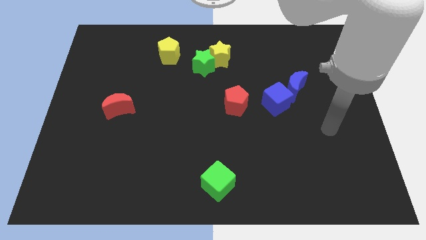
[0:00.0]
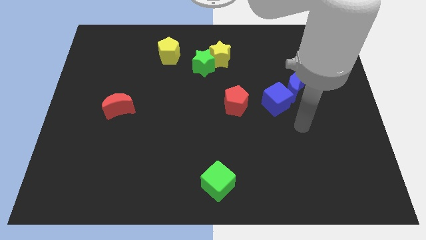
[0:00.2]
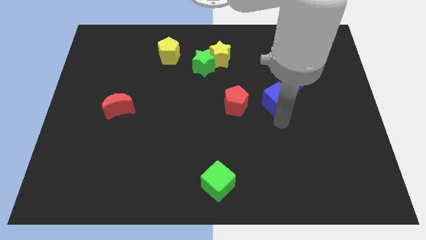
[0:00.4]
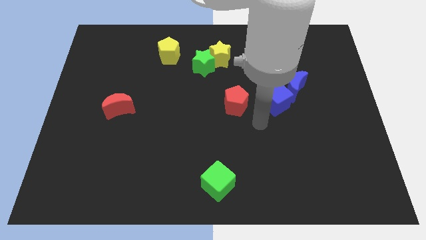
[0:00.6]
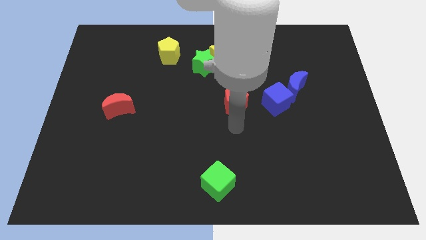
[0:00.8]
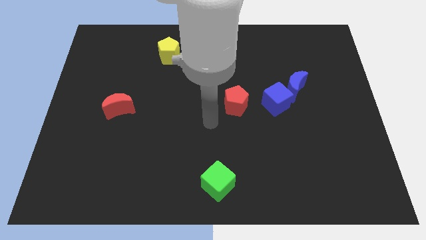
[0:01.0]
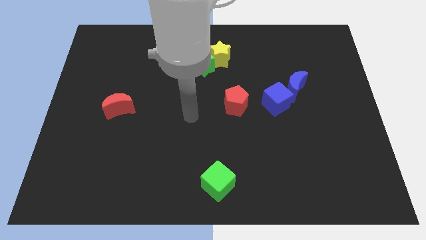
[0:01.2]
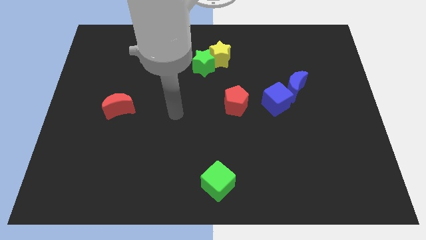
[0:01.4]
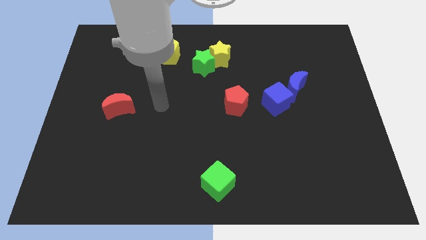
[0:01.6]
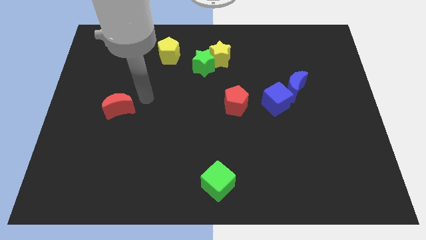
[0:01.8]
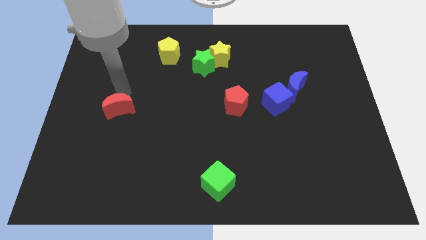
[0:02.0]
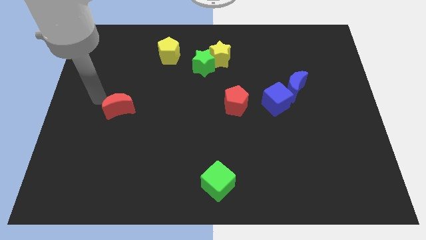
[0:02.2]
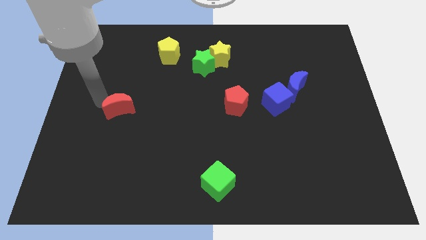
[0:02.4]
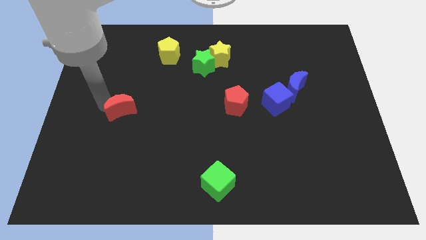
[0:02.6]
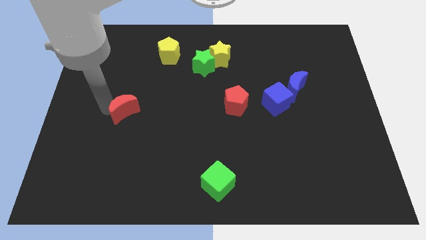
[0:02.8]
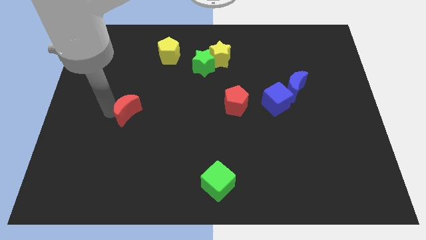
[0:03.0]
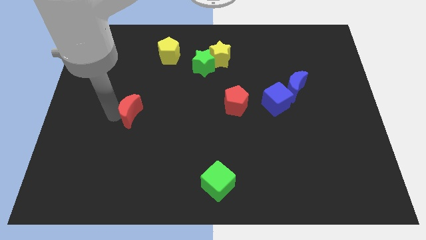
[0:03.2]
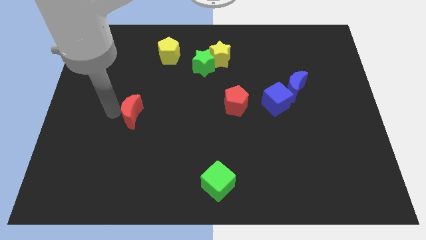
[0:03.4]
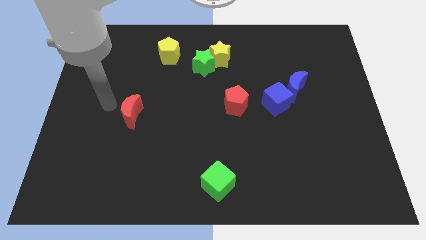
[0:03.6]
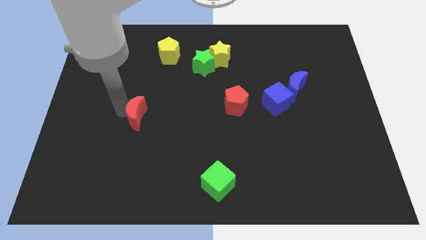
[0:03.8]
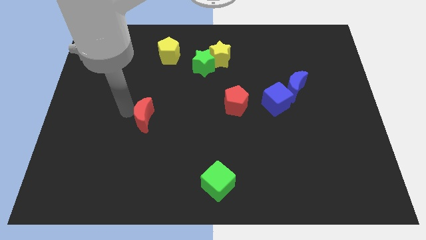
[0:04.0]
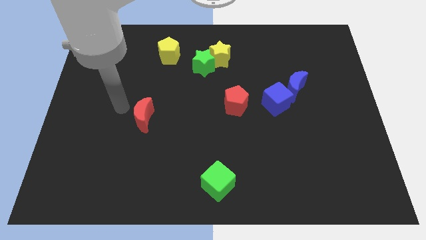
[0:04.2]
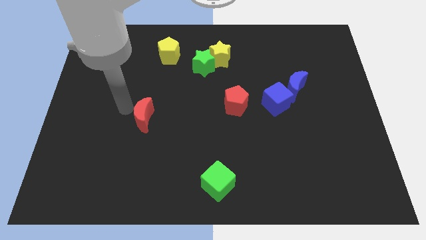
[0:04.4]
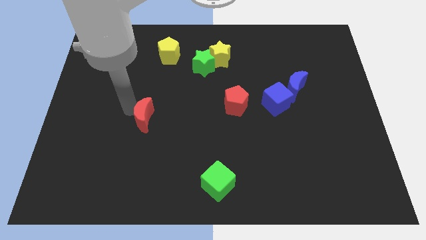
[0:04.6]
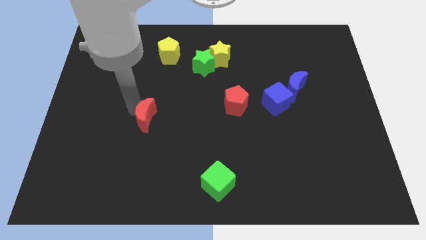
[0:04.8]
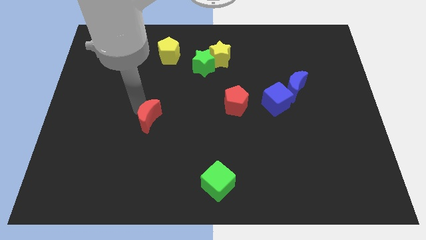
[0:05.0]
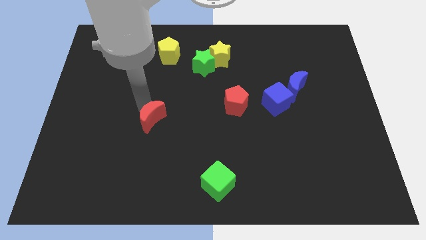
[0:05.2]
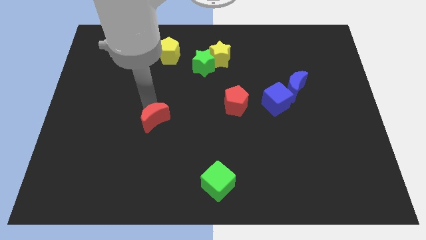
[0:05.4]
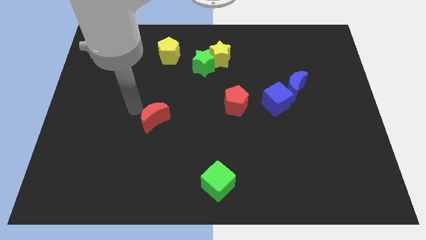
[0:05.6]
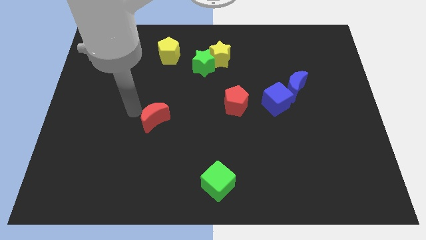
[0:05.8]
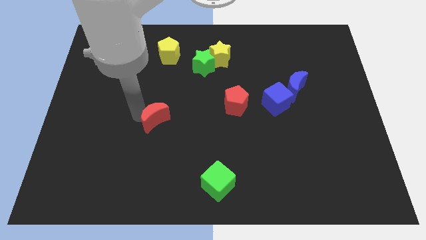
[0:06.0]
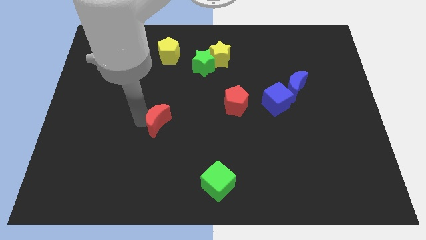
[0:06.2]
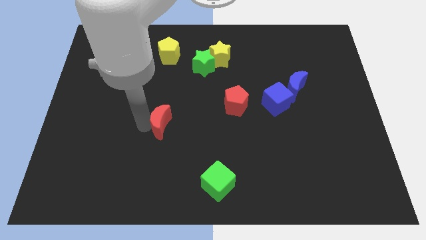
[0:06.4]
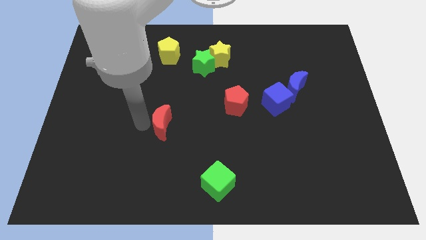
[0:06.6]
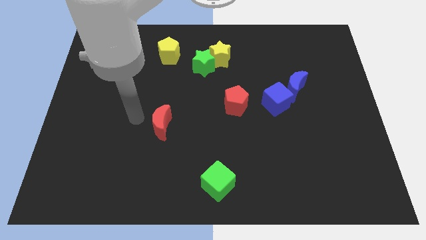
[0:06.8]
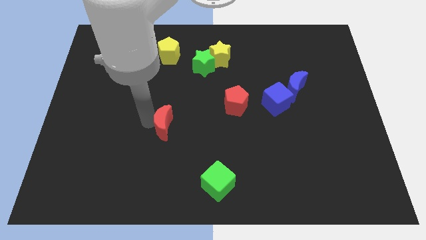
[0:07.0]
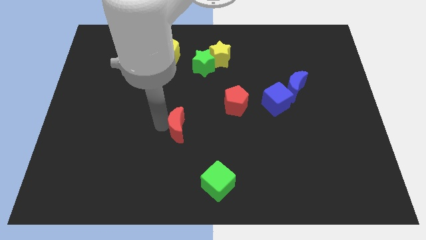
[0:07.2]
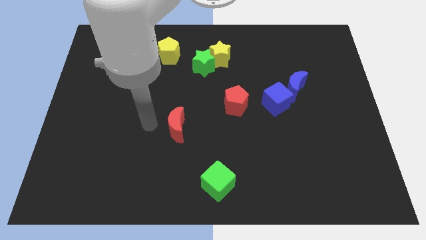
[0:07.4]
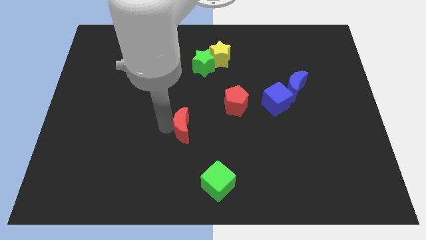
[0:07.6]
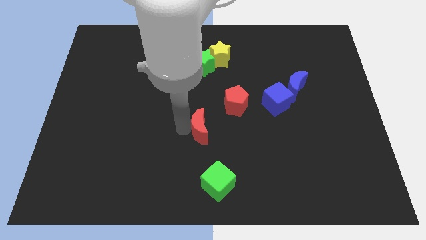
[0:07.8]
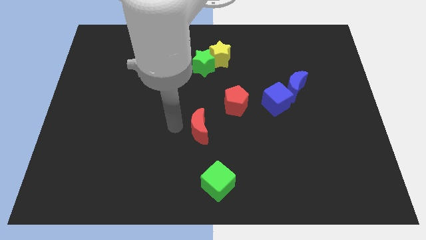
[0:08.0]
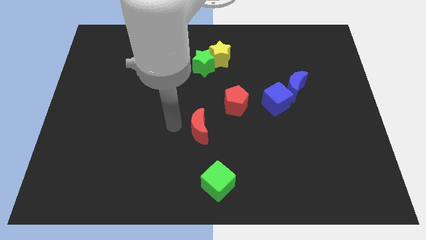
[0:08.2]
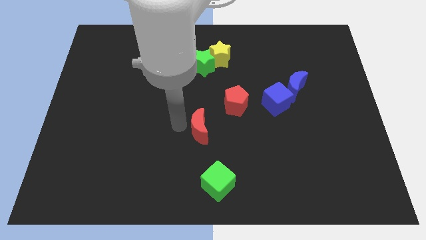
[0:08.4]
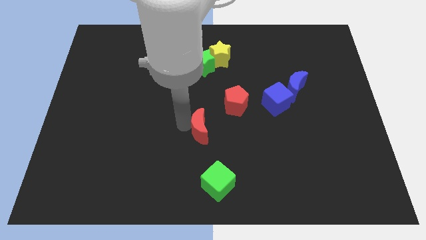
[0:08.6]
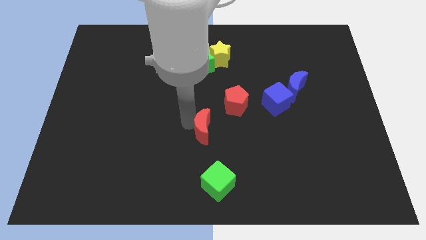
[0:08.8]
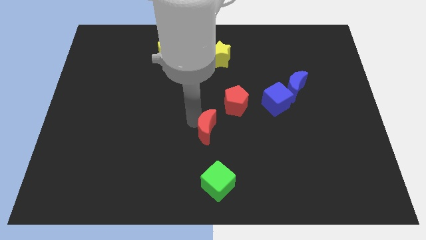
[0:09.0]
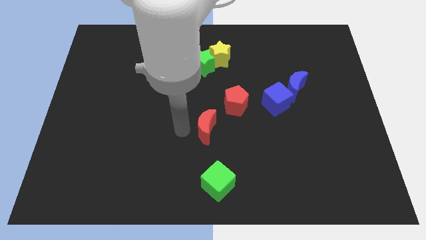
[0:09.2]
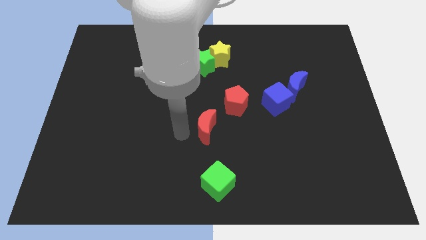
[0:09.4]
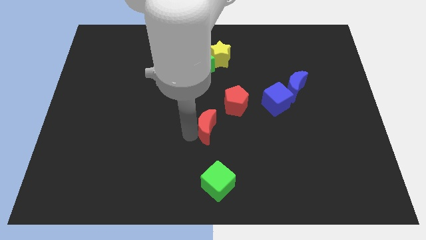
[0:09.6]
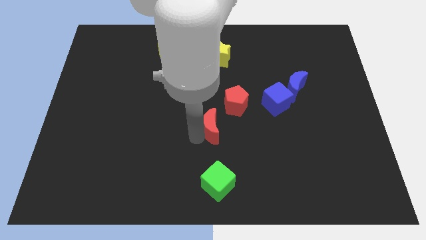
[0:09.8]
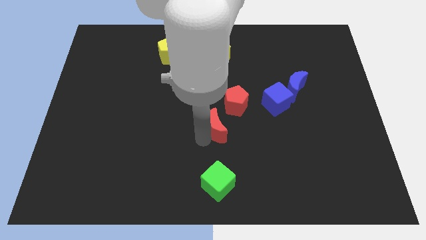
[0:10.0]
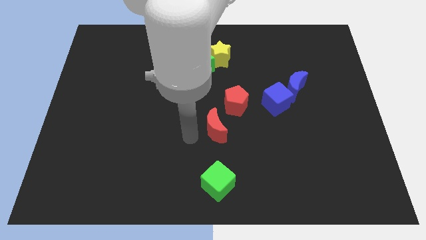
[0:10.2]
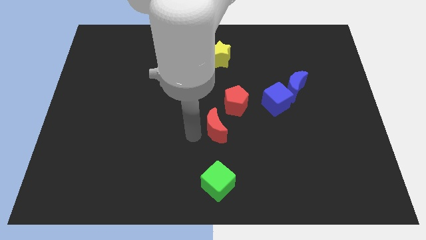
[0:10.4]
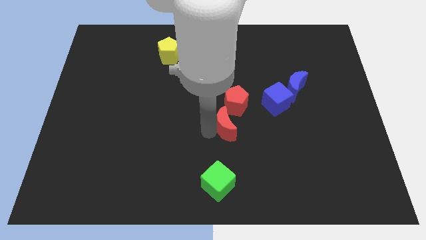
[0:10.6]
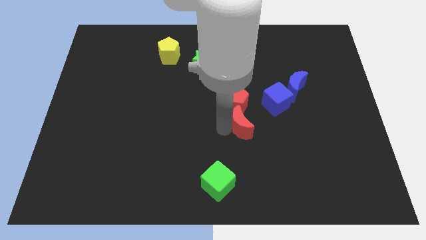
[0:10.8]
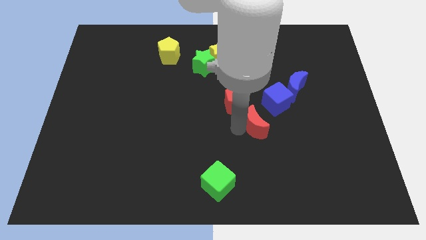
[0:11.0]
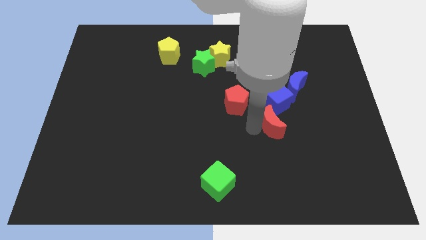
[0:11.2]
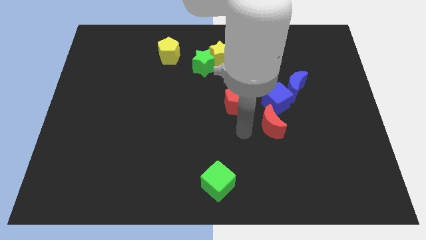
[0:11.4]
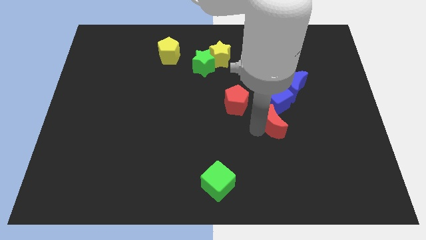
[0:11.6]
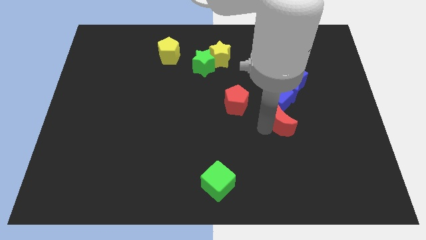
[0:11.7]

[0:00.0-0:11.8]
put the red moon to the bottom right of the blue cube

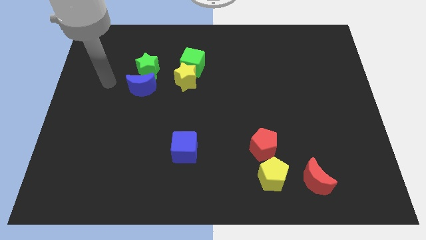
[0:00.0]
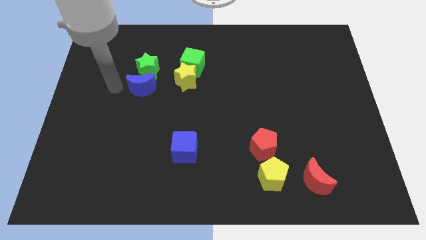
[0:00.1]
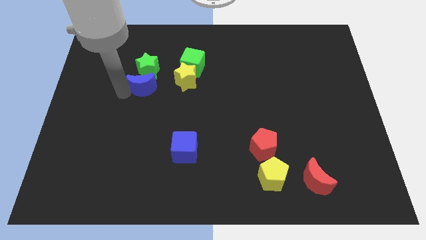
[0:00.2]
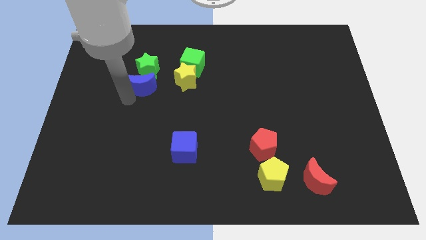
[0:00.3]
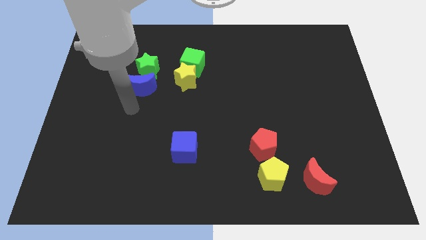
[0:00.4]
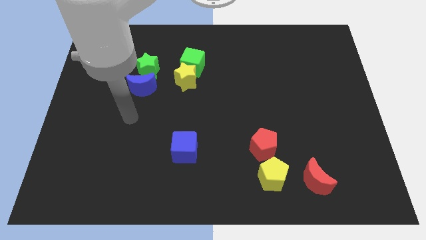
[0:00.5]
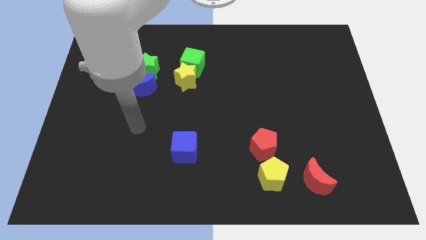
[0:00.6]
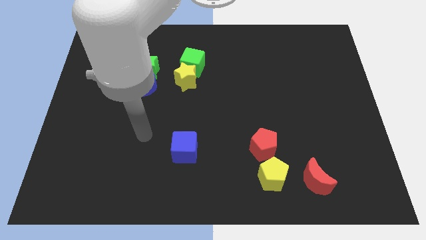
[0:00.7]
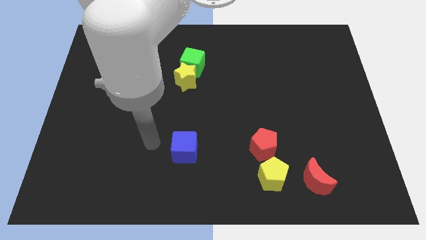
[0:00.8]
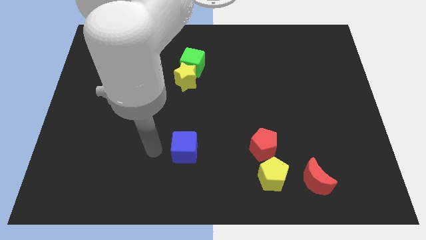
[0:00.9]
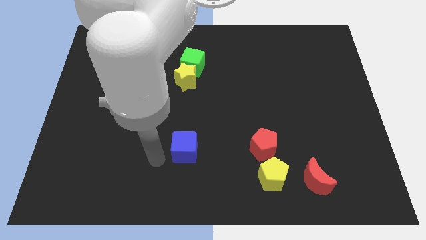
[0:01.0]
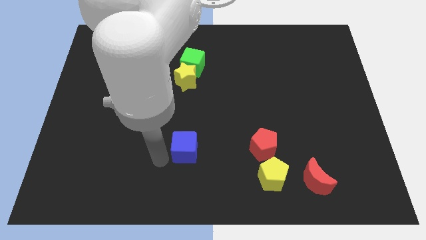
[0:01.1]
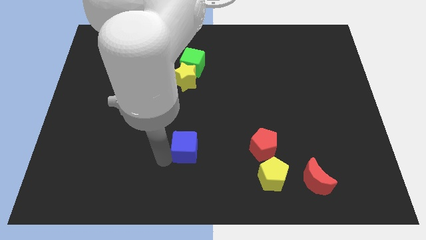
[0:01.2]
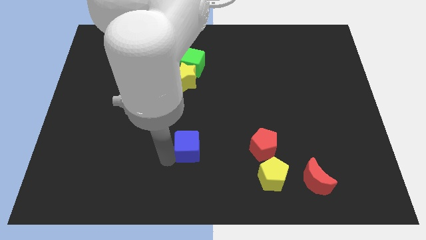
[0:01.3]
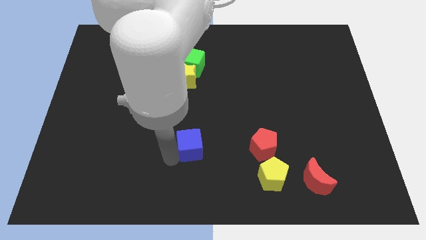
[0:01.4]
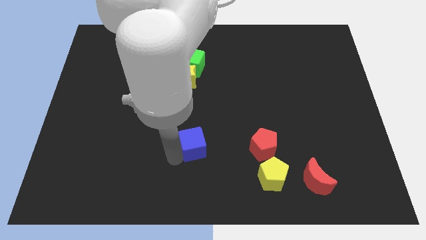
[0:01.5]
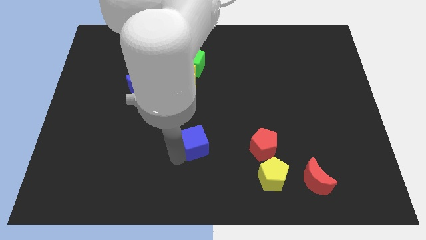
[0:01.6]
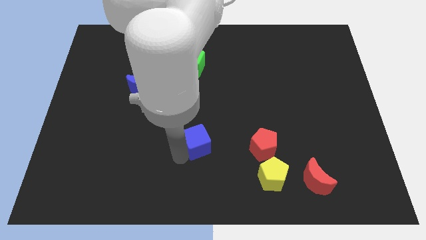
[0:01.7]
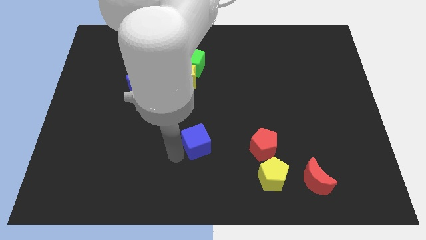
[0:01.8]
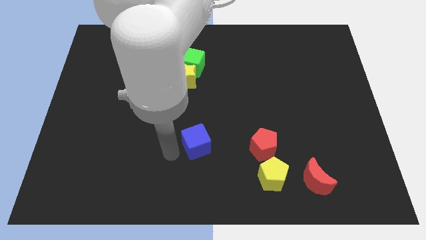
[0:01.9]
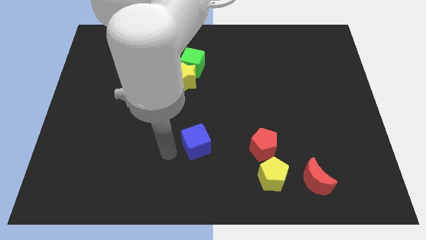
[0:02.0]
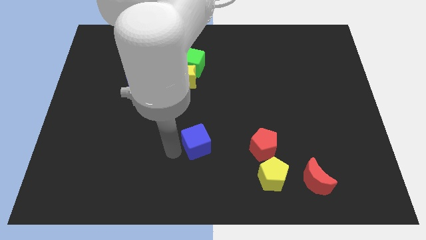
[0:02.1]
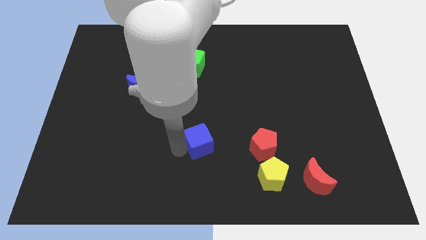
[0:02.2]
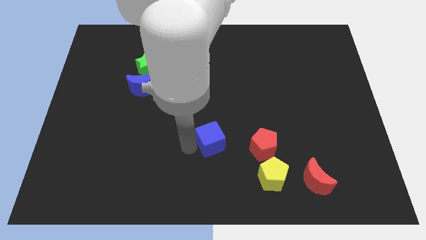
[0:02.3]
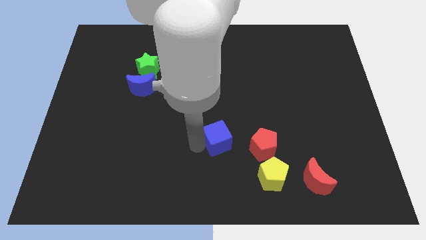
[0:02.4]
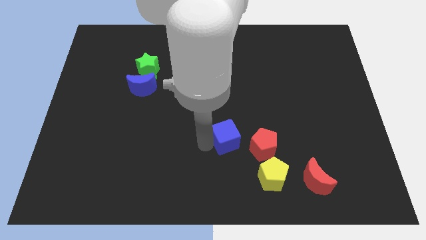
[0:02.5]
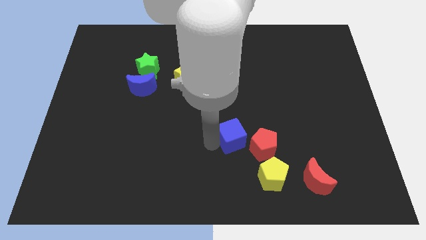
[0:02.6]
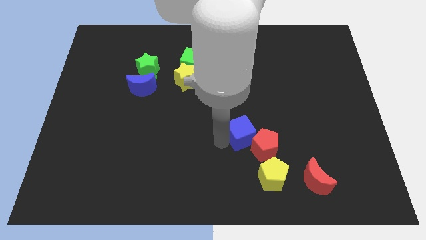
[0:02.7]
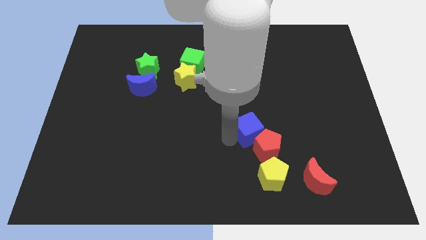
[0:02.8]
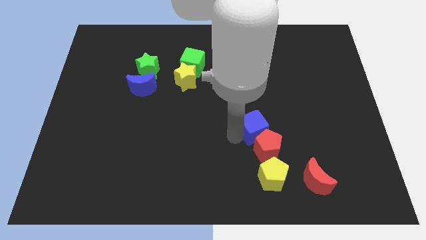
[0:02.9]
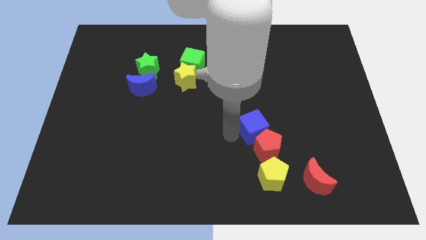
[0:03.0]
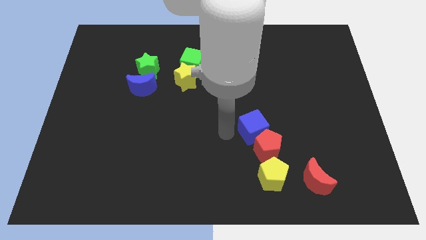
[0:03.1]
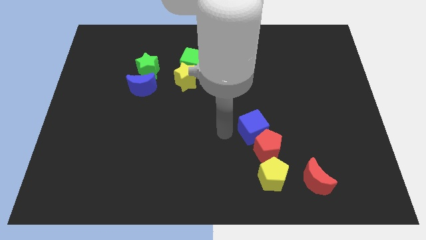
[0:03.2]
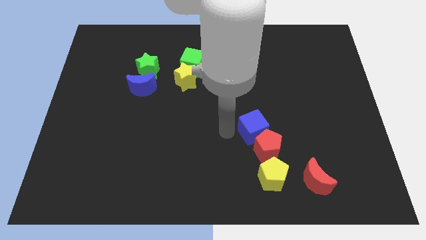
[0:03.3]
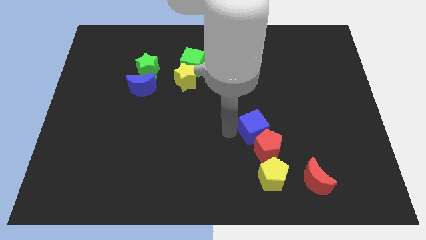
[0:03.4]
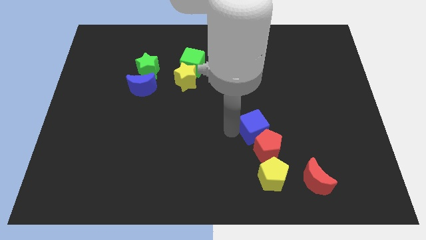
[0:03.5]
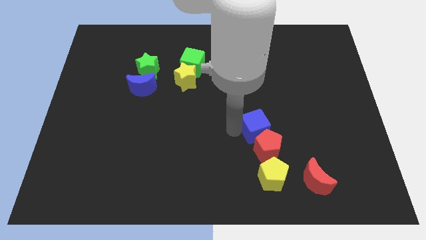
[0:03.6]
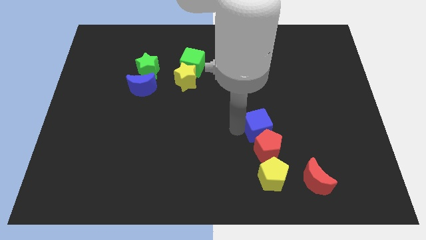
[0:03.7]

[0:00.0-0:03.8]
put the blue cube to the top right of the red pentagon
